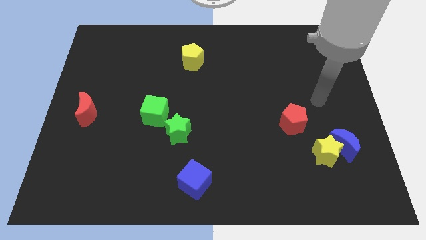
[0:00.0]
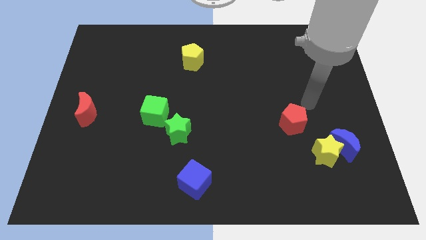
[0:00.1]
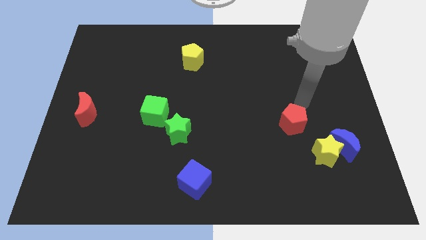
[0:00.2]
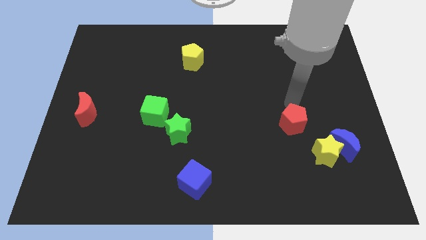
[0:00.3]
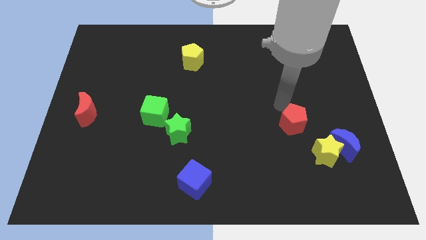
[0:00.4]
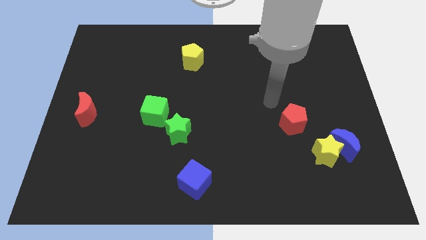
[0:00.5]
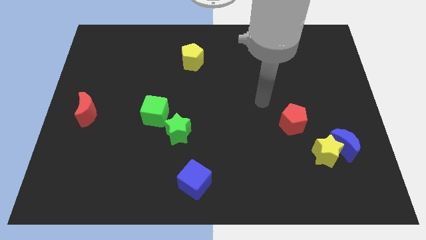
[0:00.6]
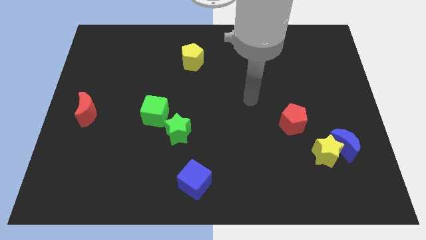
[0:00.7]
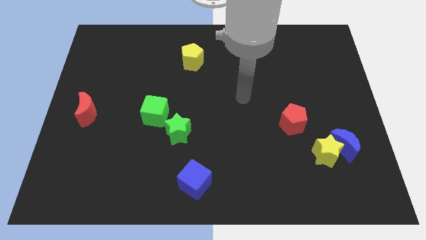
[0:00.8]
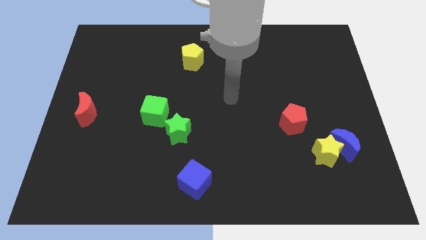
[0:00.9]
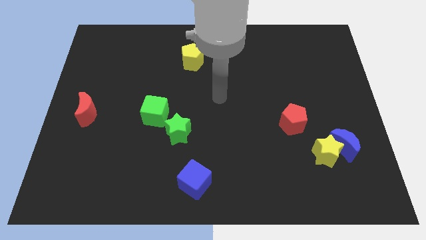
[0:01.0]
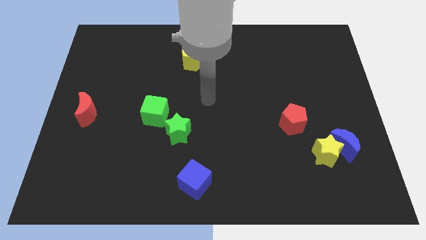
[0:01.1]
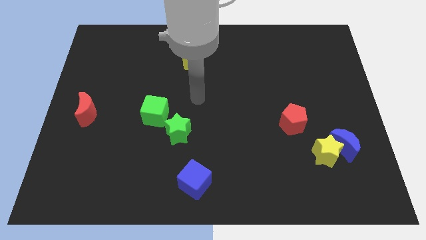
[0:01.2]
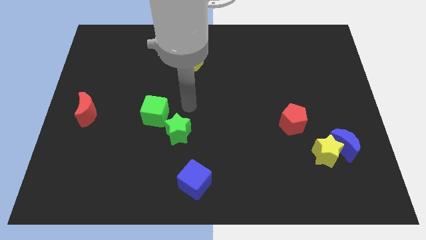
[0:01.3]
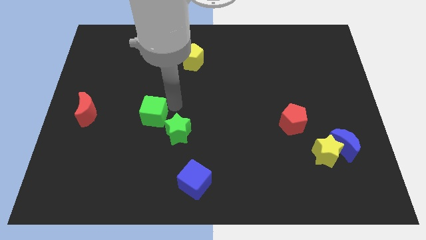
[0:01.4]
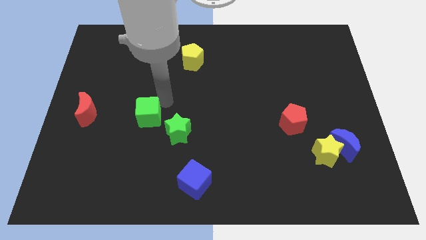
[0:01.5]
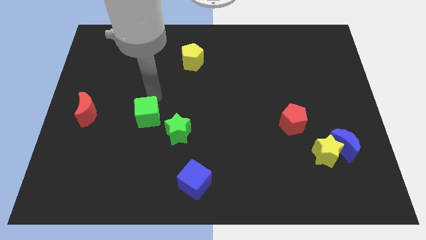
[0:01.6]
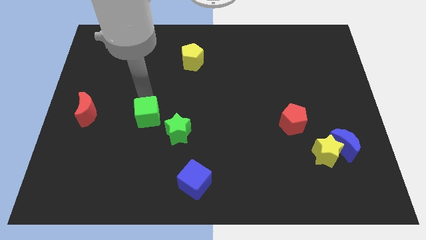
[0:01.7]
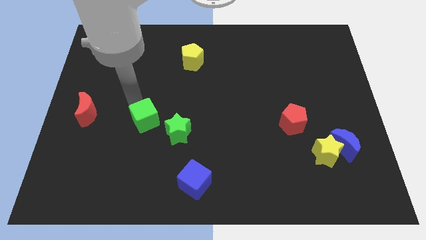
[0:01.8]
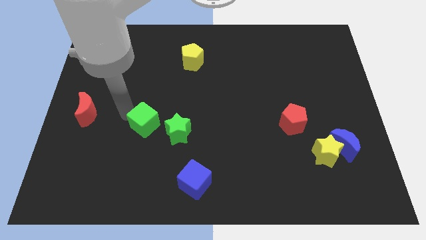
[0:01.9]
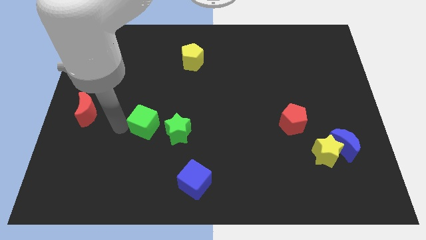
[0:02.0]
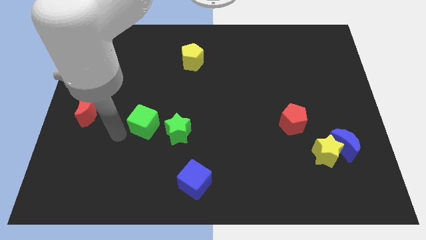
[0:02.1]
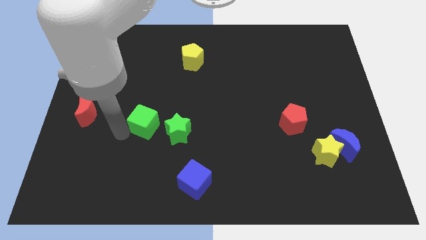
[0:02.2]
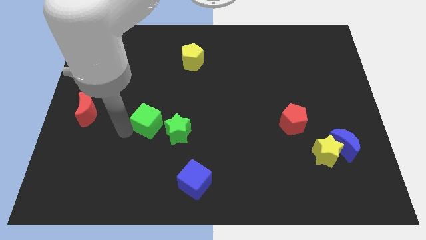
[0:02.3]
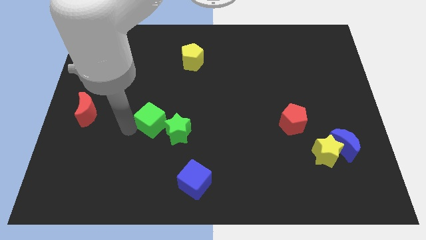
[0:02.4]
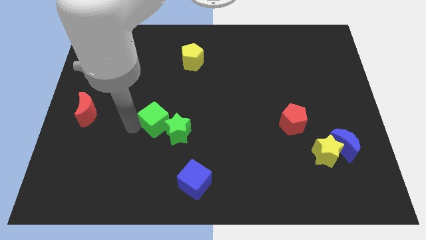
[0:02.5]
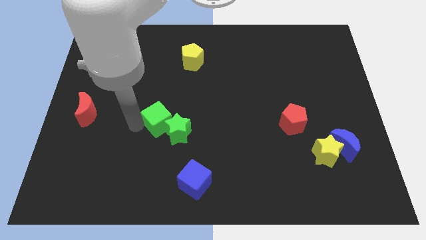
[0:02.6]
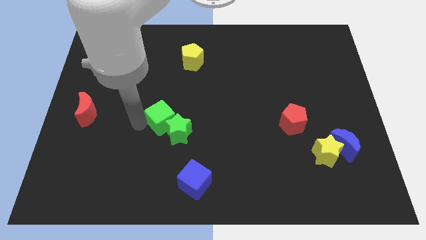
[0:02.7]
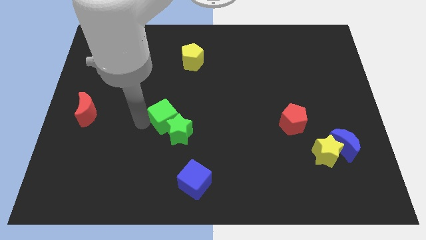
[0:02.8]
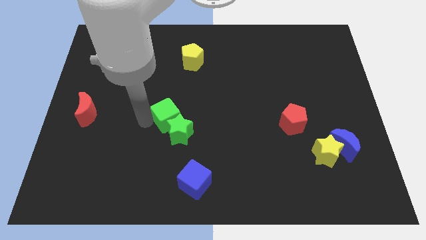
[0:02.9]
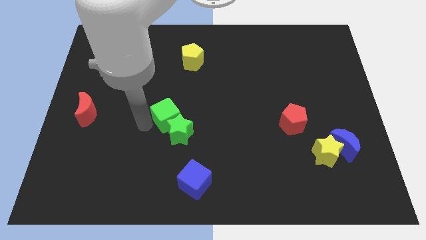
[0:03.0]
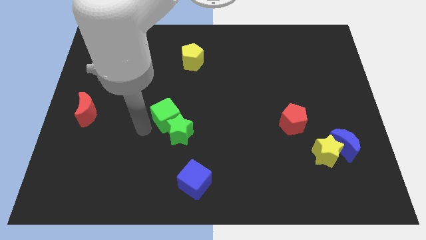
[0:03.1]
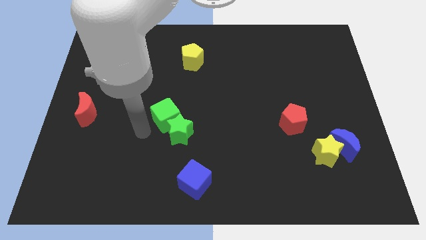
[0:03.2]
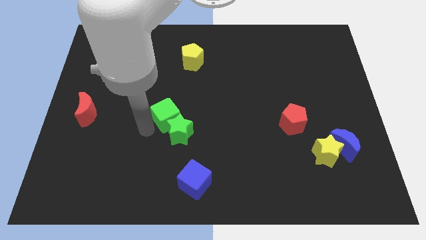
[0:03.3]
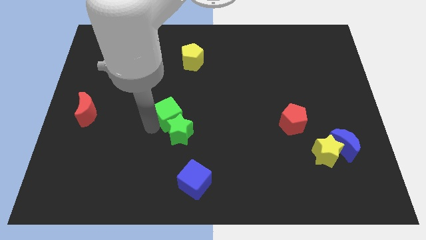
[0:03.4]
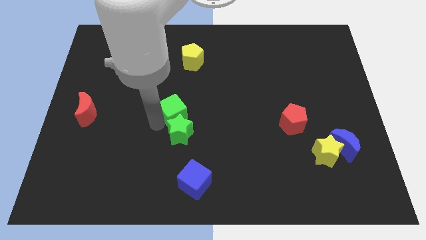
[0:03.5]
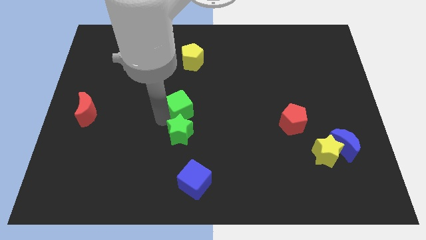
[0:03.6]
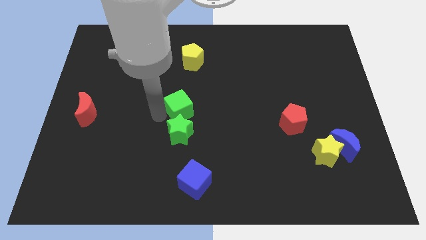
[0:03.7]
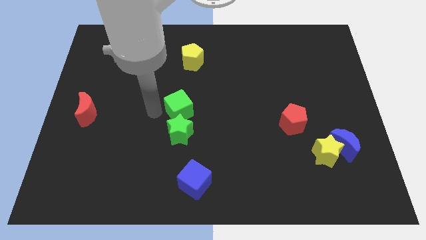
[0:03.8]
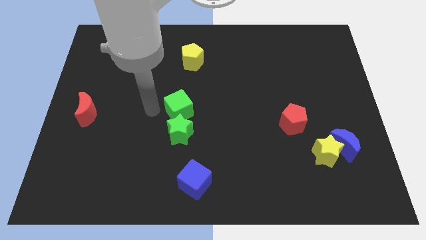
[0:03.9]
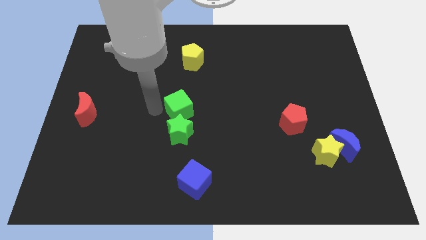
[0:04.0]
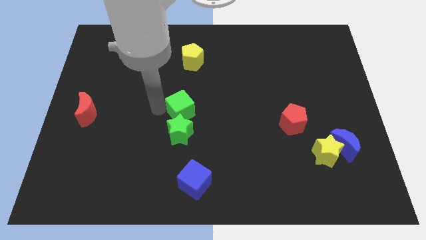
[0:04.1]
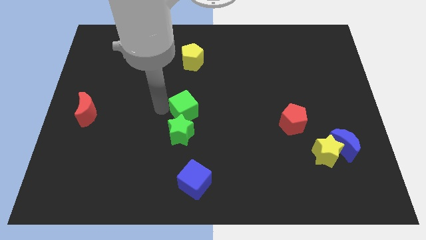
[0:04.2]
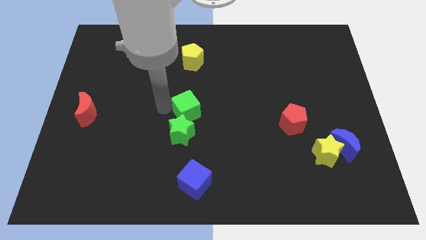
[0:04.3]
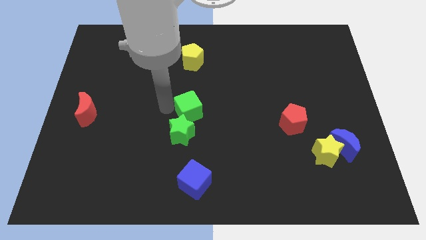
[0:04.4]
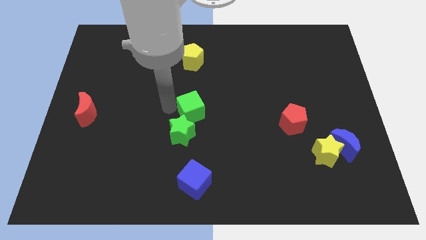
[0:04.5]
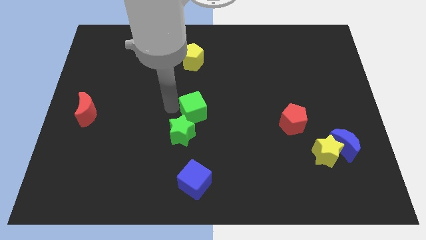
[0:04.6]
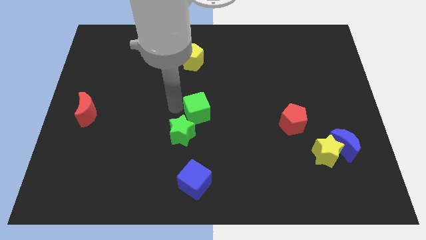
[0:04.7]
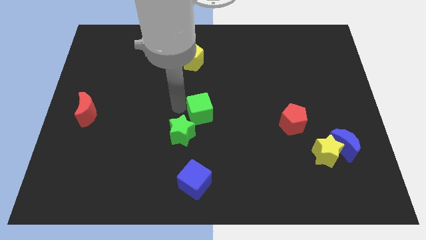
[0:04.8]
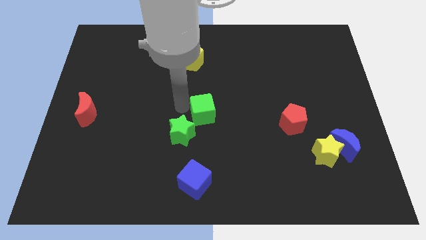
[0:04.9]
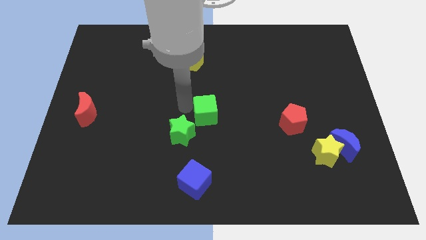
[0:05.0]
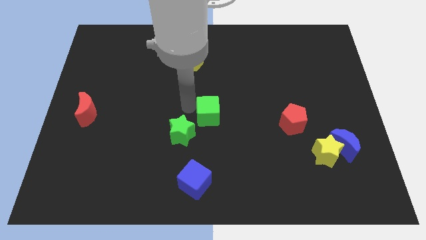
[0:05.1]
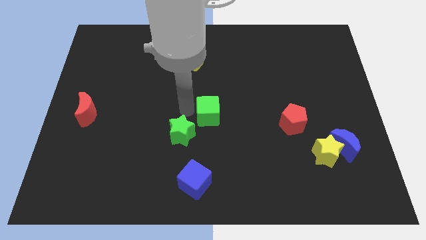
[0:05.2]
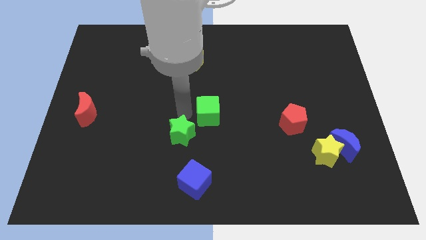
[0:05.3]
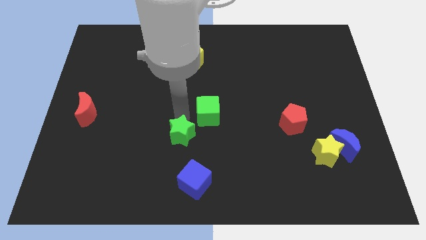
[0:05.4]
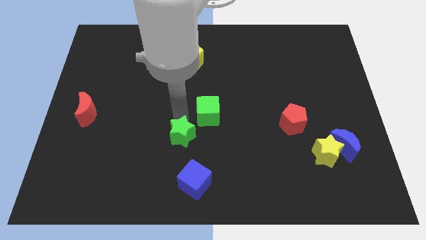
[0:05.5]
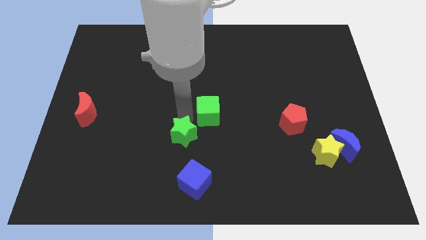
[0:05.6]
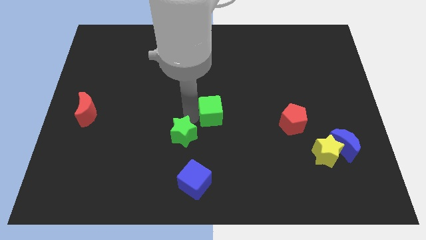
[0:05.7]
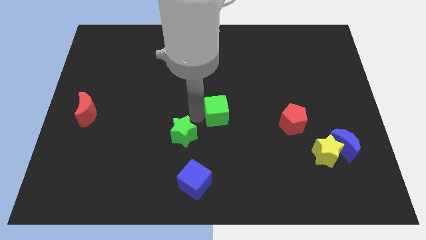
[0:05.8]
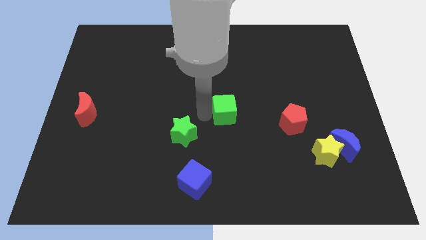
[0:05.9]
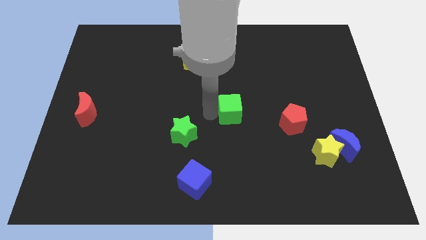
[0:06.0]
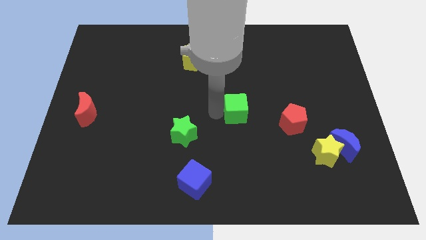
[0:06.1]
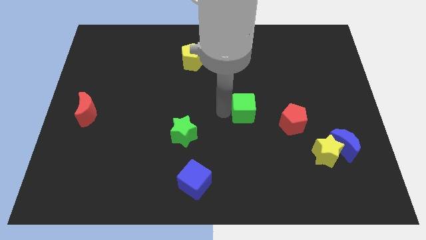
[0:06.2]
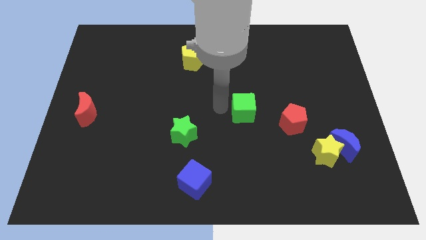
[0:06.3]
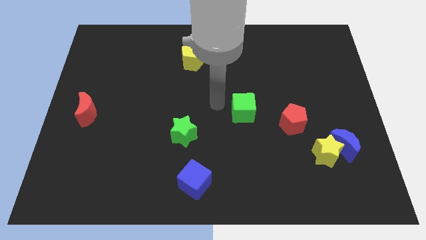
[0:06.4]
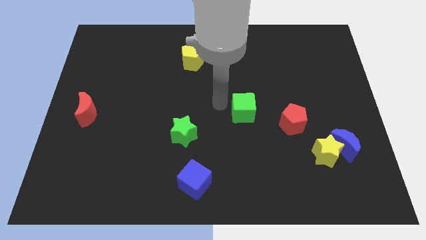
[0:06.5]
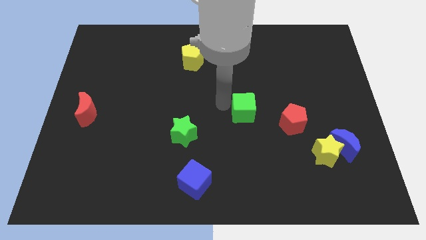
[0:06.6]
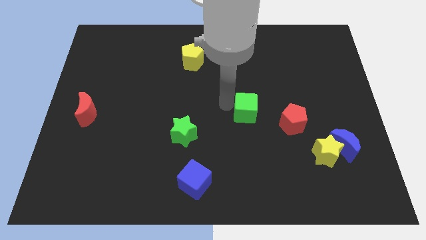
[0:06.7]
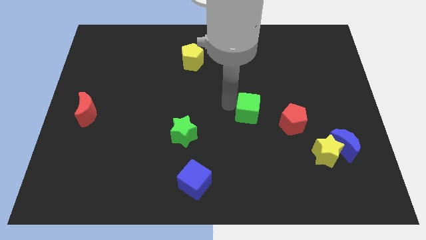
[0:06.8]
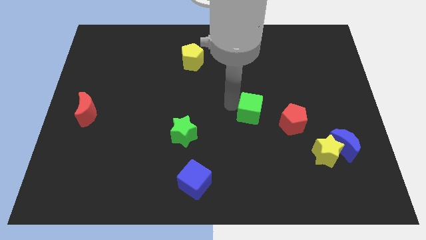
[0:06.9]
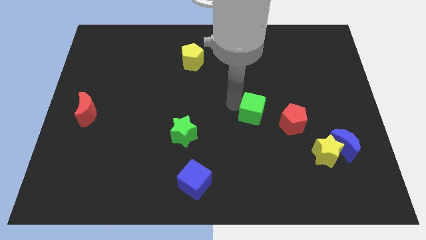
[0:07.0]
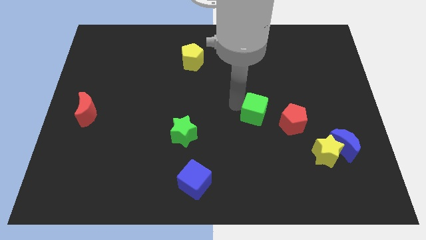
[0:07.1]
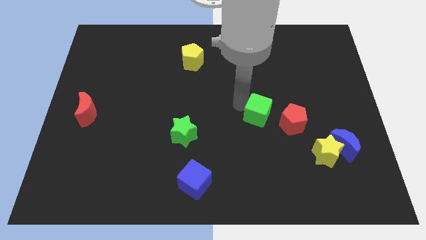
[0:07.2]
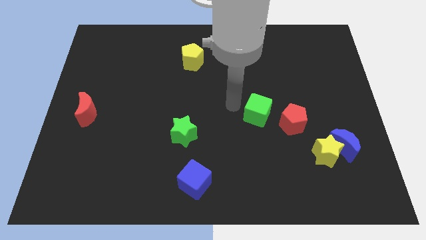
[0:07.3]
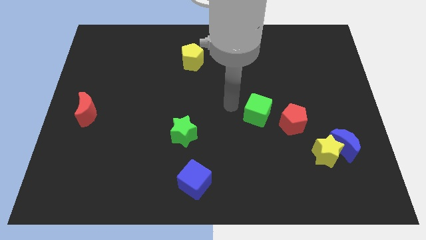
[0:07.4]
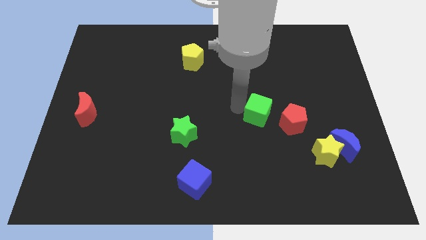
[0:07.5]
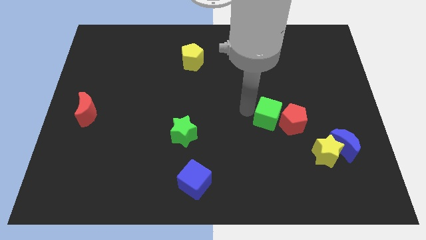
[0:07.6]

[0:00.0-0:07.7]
move the green cube towards the red pentagon
